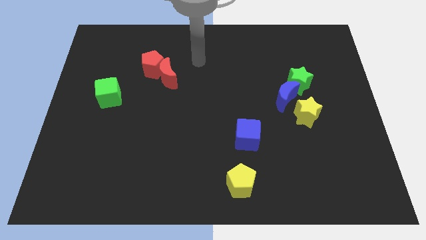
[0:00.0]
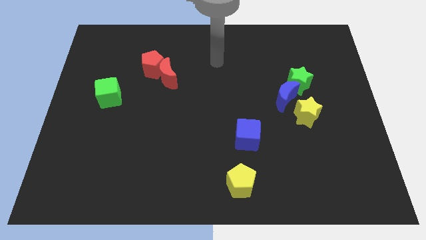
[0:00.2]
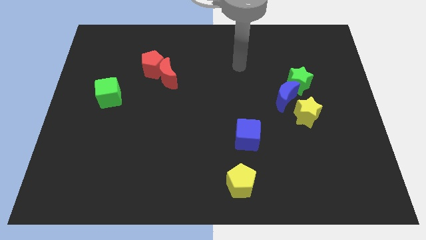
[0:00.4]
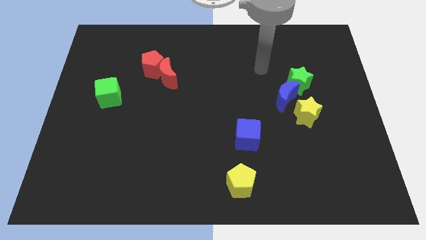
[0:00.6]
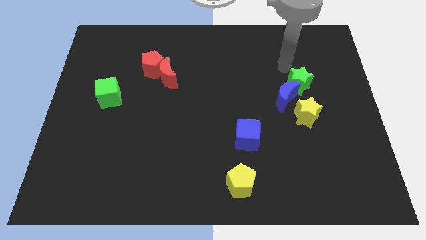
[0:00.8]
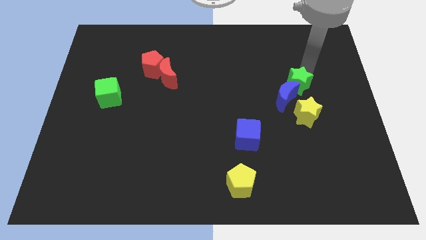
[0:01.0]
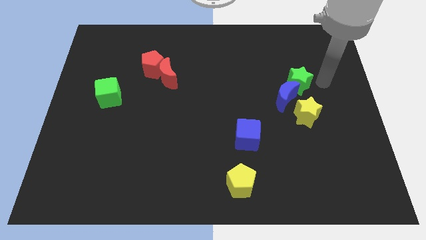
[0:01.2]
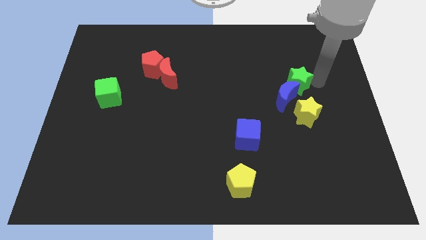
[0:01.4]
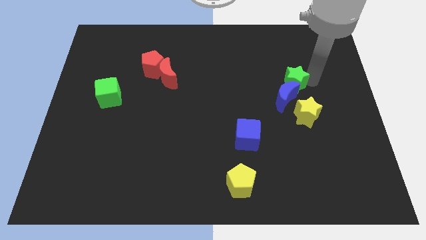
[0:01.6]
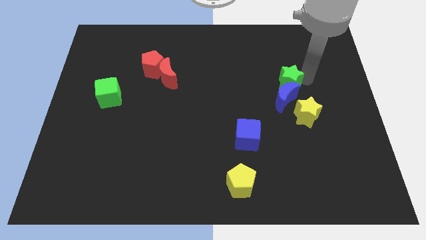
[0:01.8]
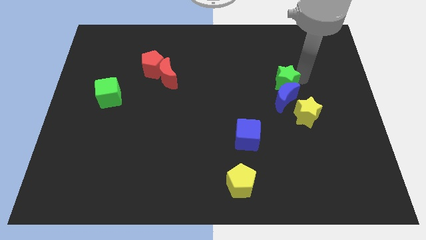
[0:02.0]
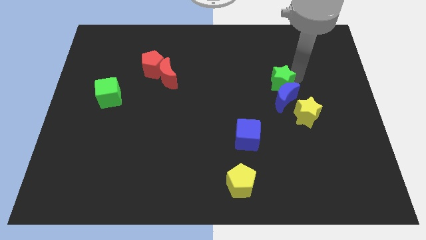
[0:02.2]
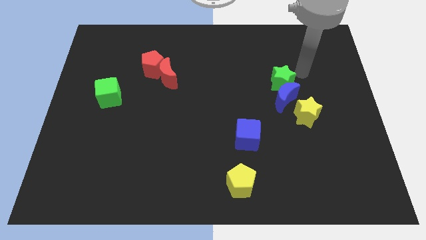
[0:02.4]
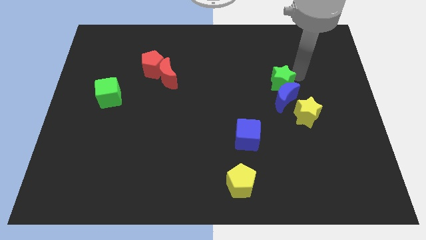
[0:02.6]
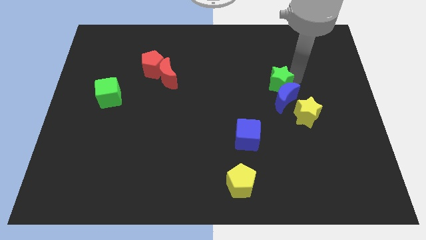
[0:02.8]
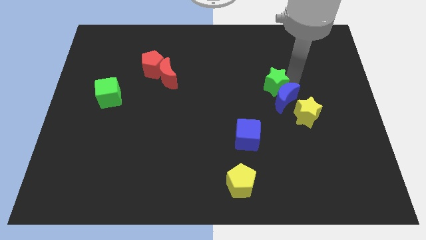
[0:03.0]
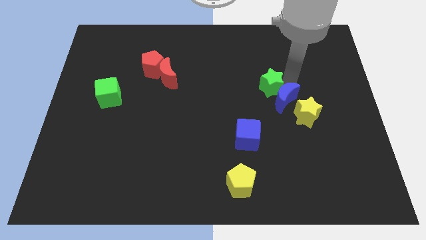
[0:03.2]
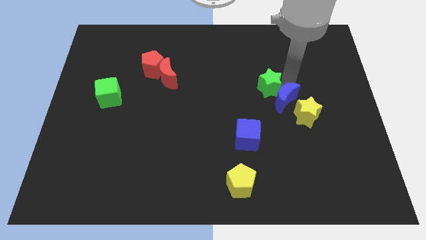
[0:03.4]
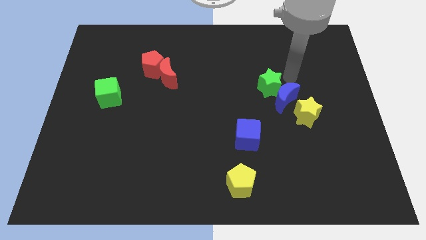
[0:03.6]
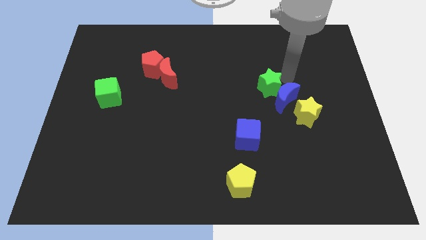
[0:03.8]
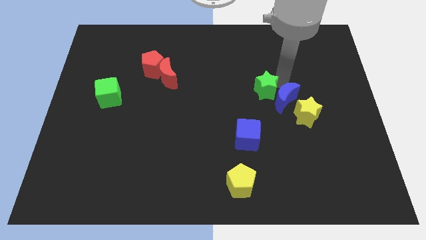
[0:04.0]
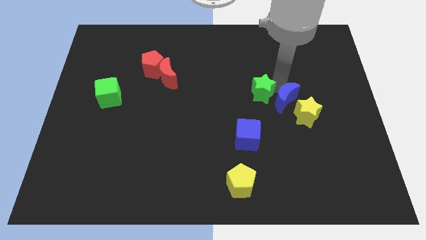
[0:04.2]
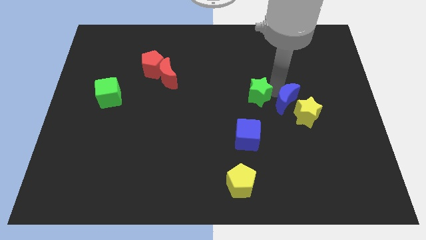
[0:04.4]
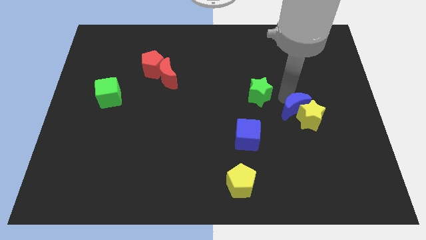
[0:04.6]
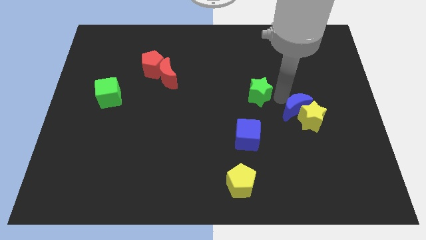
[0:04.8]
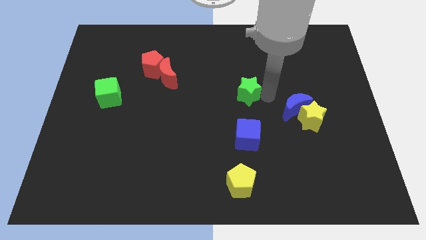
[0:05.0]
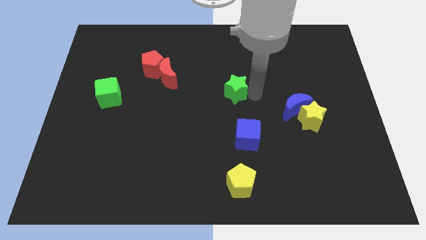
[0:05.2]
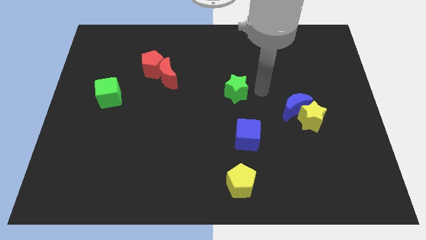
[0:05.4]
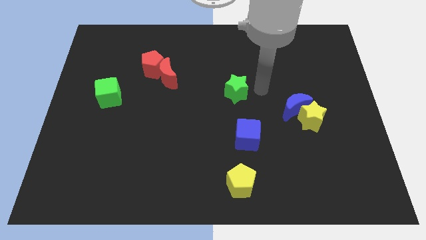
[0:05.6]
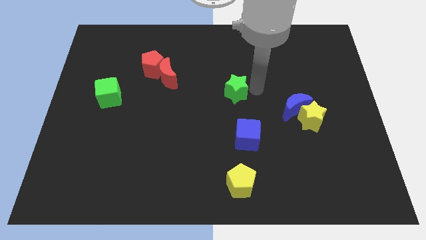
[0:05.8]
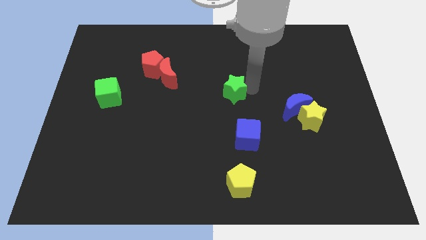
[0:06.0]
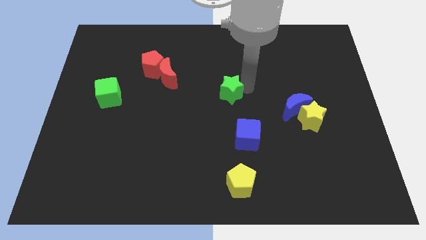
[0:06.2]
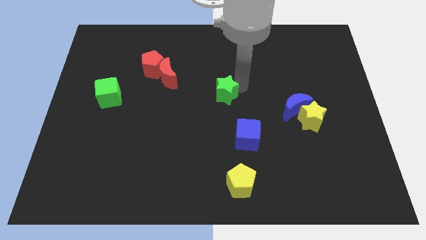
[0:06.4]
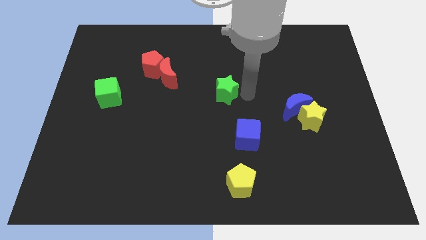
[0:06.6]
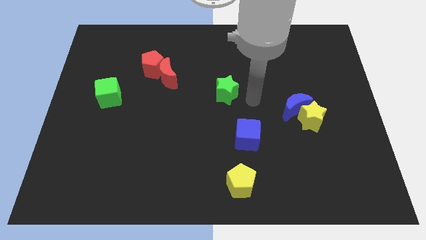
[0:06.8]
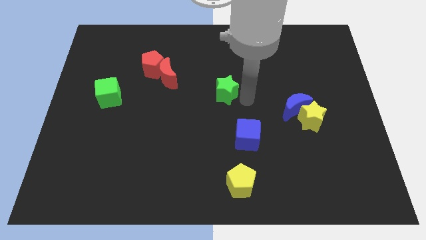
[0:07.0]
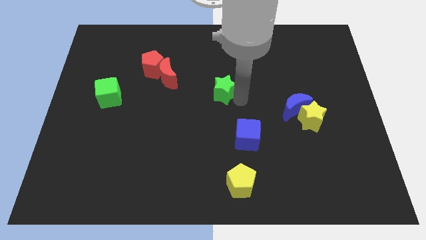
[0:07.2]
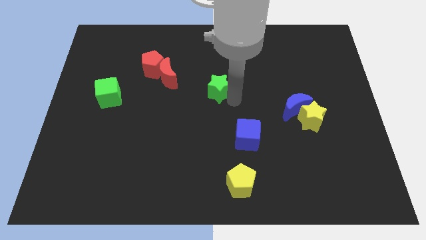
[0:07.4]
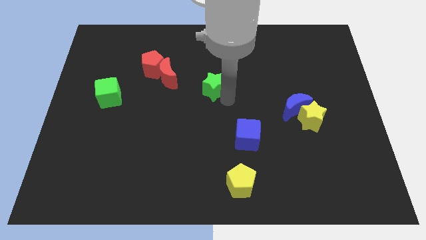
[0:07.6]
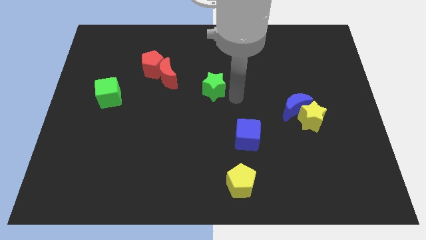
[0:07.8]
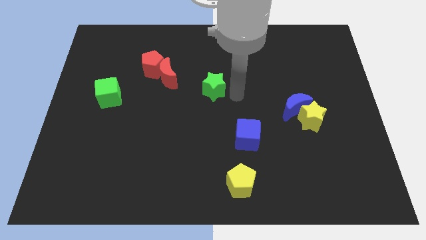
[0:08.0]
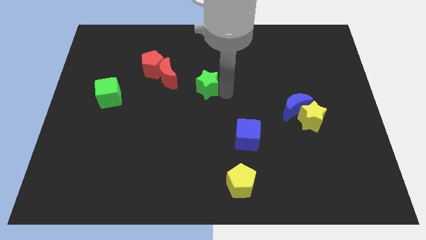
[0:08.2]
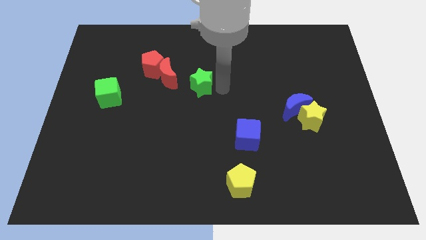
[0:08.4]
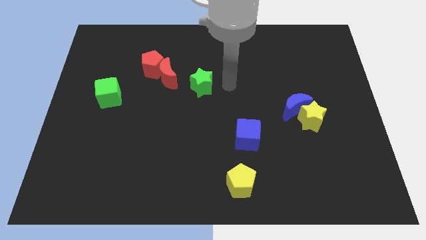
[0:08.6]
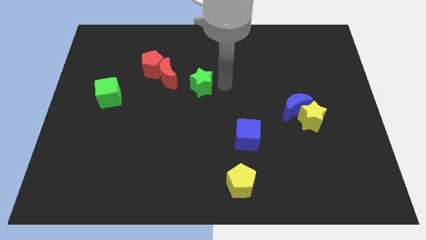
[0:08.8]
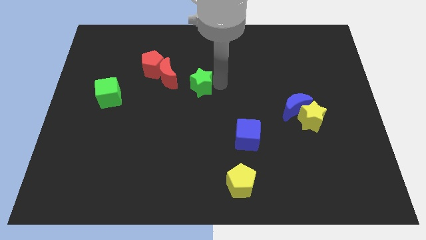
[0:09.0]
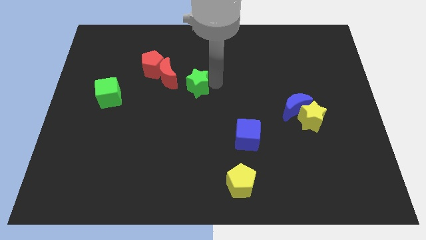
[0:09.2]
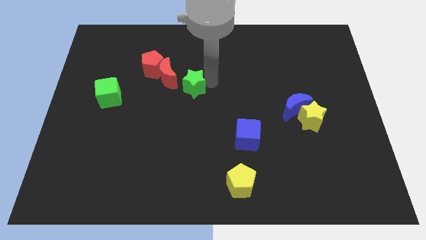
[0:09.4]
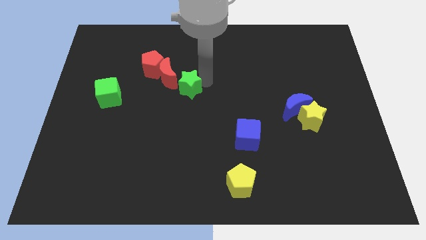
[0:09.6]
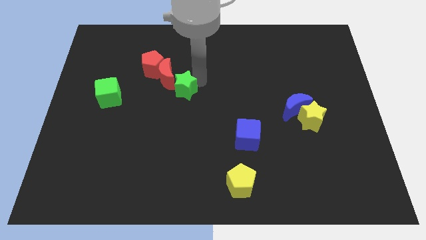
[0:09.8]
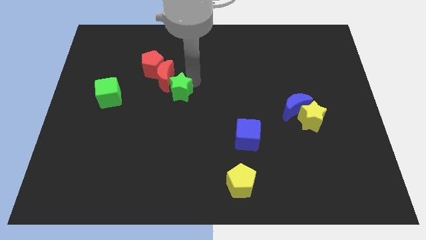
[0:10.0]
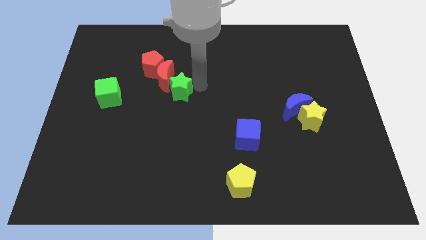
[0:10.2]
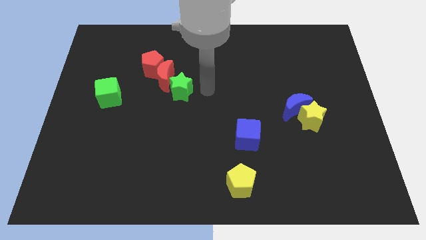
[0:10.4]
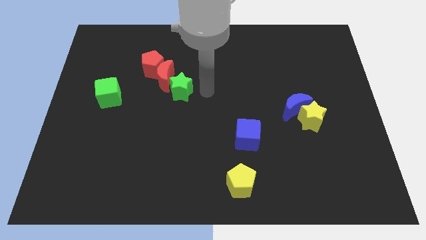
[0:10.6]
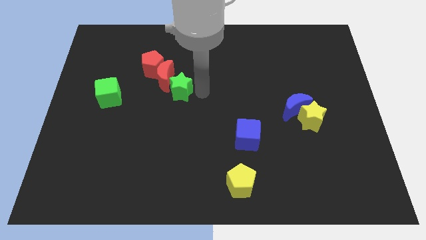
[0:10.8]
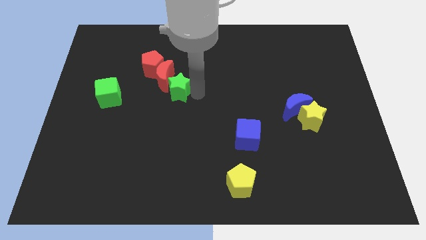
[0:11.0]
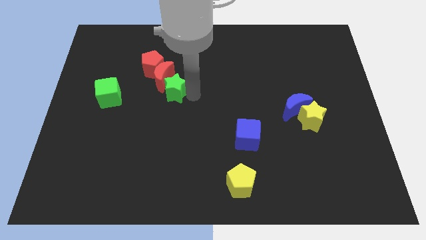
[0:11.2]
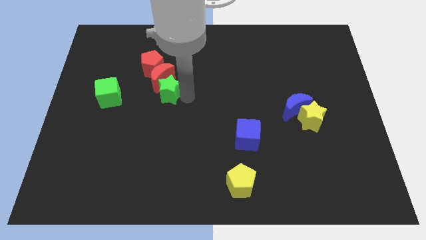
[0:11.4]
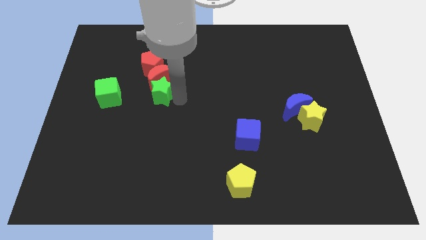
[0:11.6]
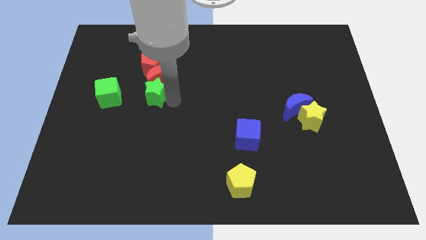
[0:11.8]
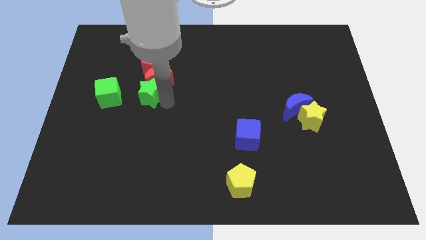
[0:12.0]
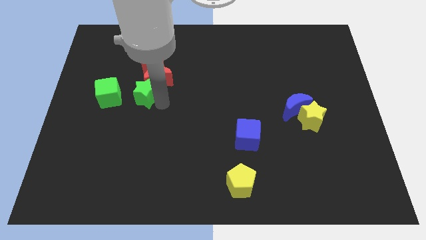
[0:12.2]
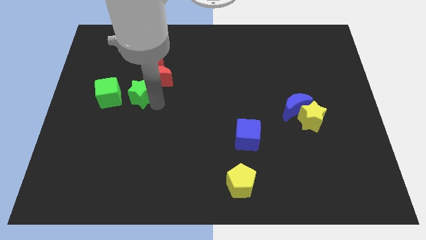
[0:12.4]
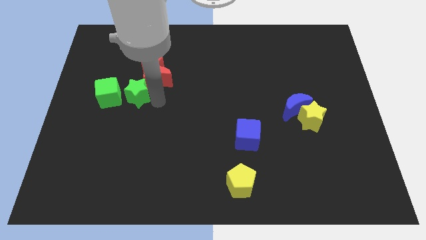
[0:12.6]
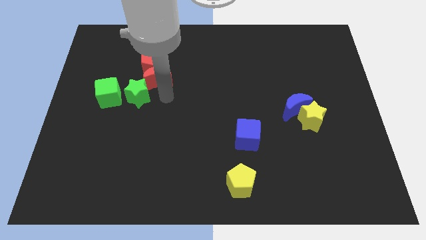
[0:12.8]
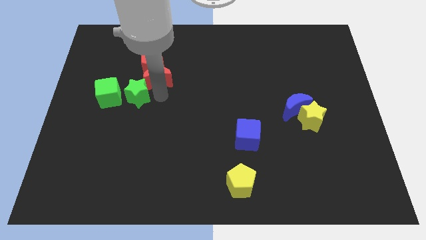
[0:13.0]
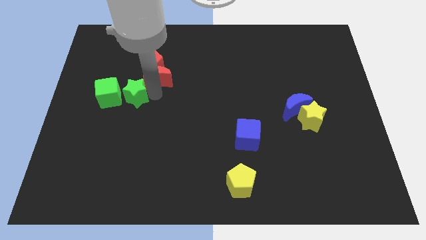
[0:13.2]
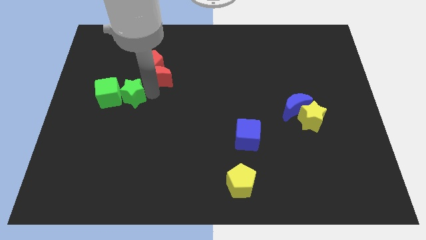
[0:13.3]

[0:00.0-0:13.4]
move the green star to the green cube
